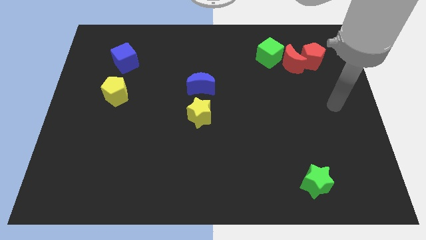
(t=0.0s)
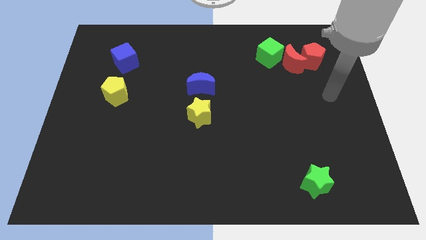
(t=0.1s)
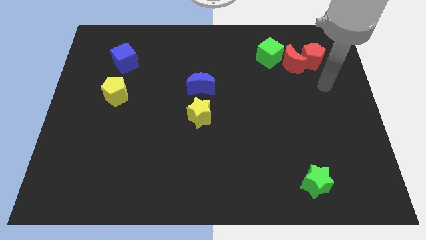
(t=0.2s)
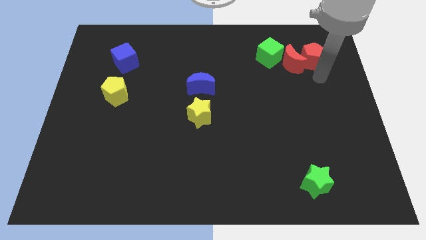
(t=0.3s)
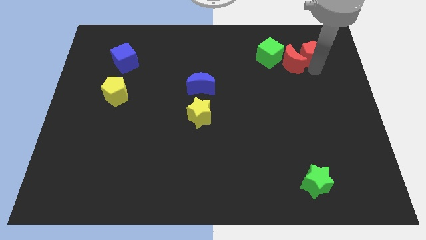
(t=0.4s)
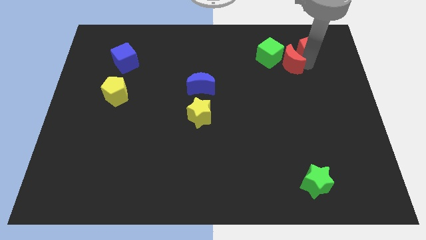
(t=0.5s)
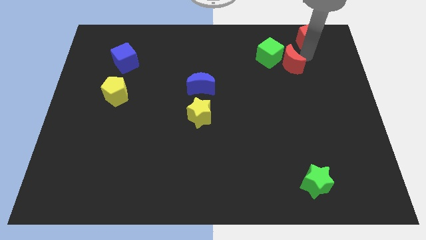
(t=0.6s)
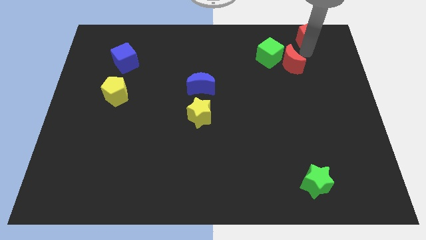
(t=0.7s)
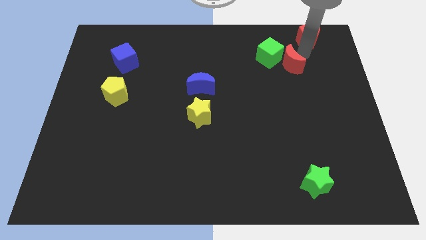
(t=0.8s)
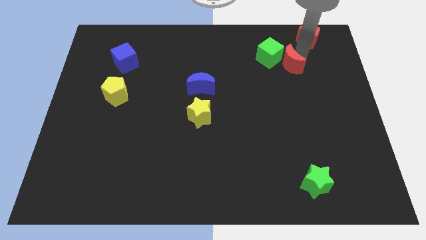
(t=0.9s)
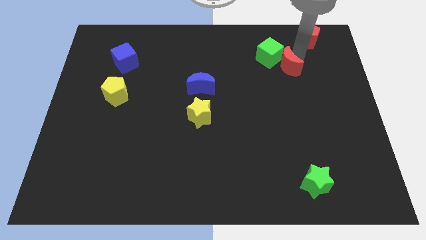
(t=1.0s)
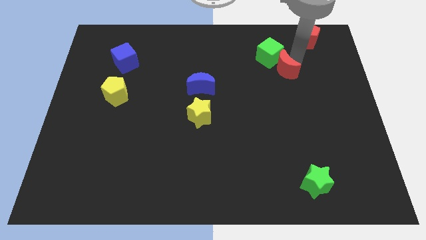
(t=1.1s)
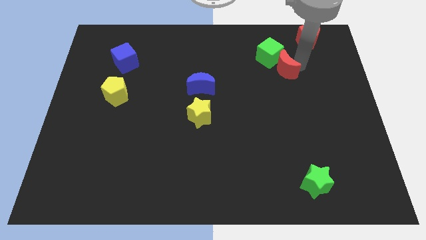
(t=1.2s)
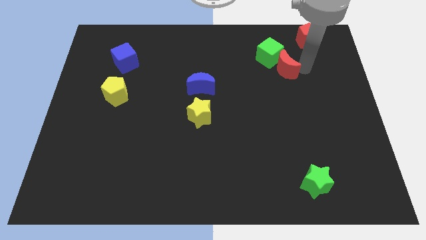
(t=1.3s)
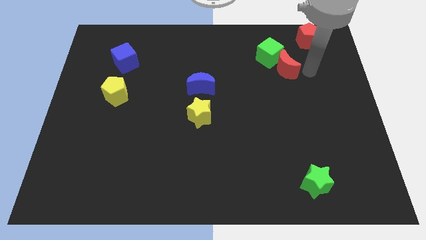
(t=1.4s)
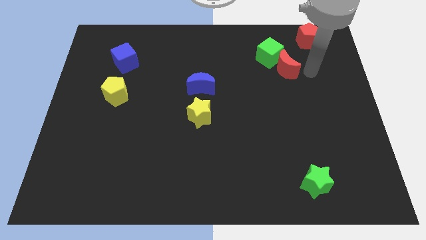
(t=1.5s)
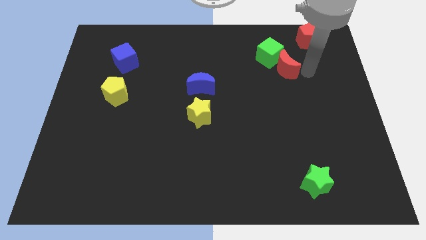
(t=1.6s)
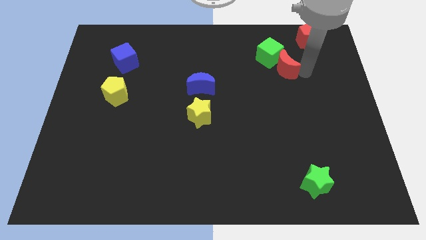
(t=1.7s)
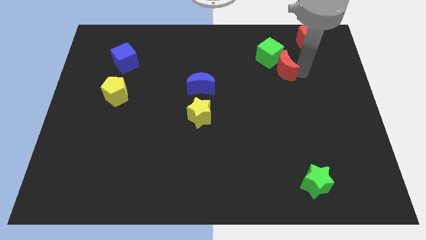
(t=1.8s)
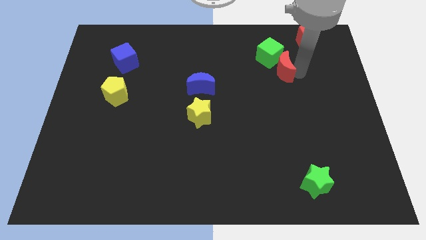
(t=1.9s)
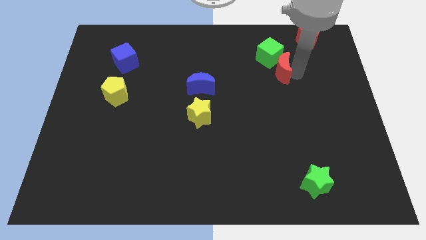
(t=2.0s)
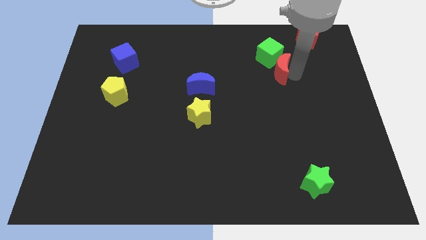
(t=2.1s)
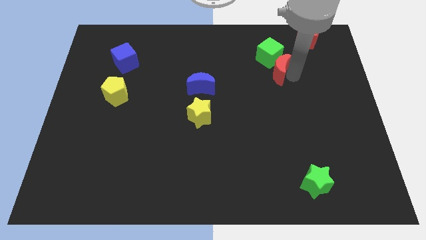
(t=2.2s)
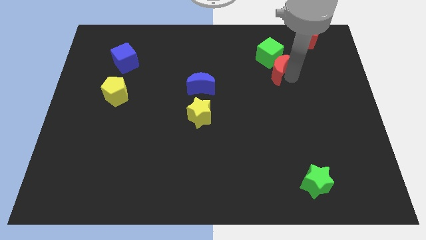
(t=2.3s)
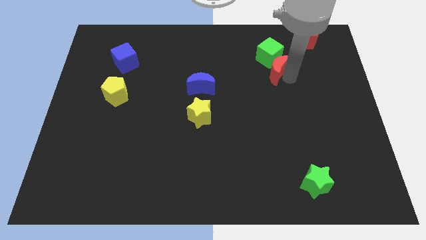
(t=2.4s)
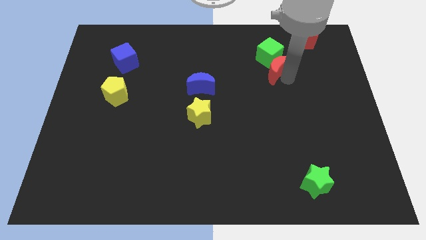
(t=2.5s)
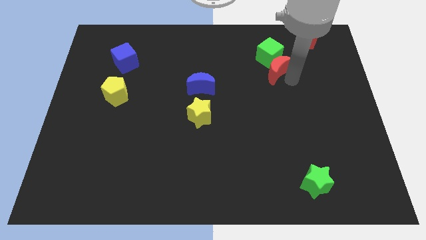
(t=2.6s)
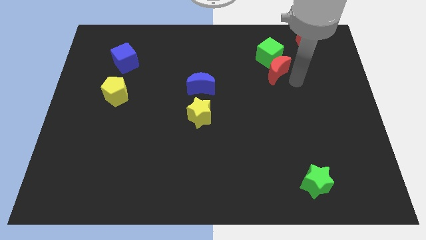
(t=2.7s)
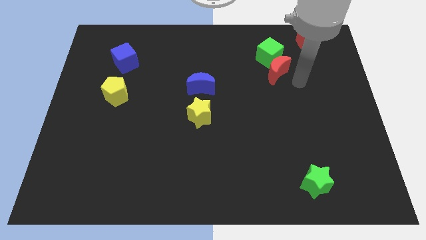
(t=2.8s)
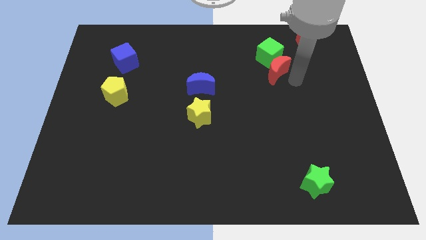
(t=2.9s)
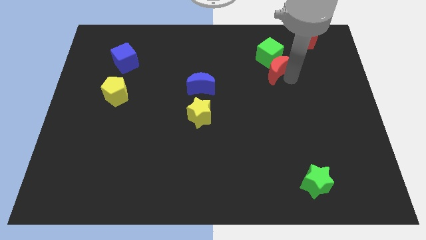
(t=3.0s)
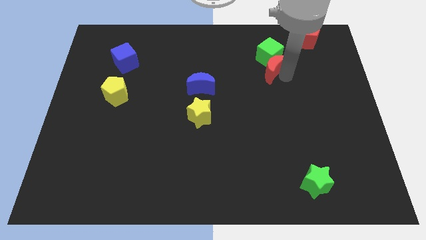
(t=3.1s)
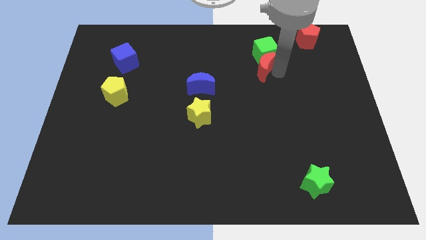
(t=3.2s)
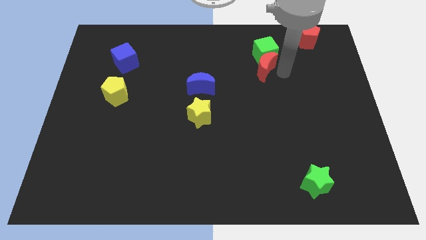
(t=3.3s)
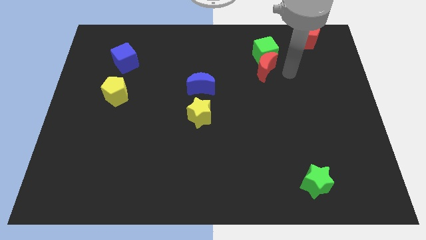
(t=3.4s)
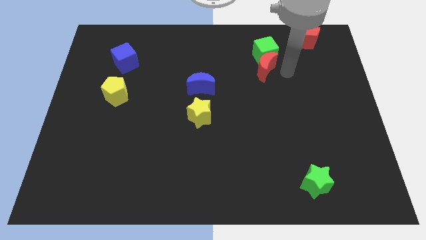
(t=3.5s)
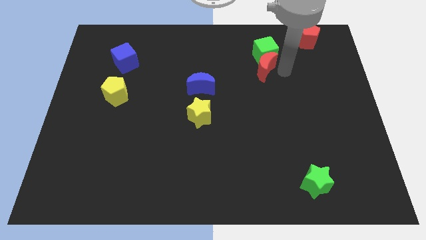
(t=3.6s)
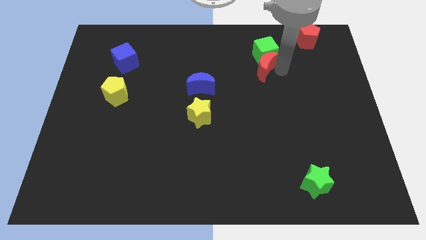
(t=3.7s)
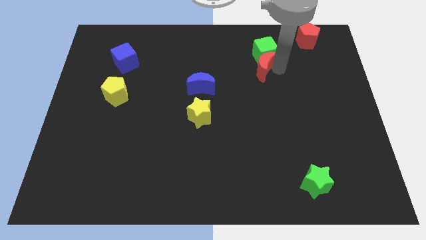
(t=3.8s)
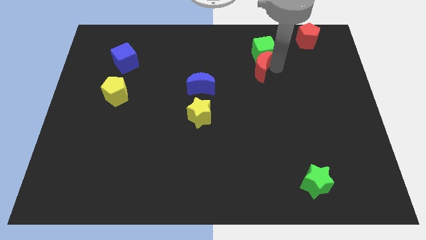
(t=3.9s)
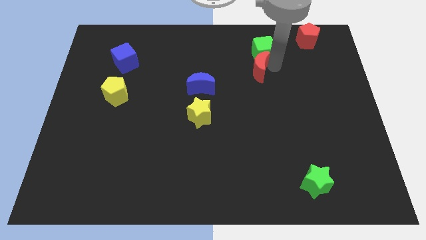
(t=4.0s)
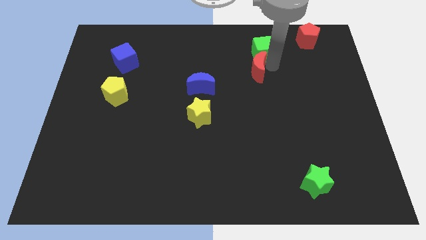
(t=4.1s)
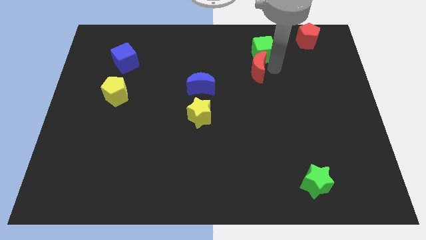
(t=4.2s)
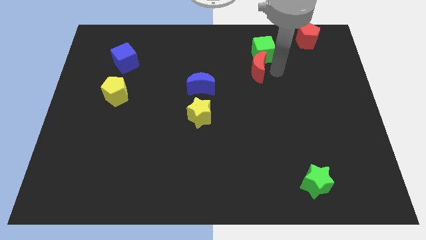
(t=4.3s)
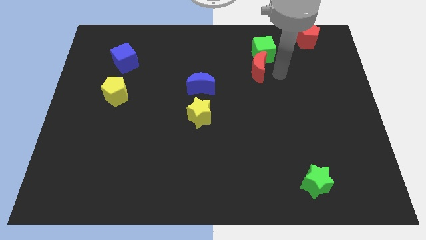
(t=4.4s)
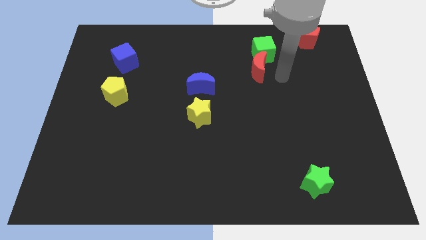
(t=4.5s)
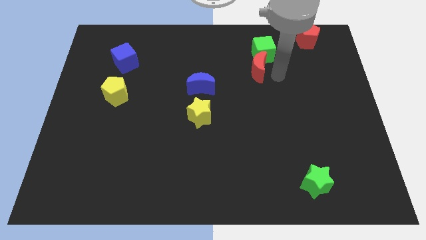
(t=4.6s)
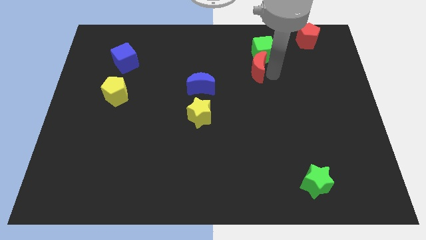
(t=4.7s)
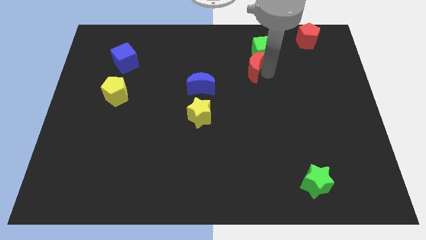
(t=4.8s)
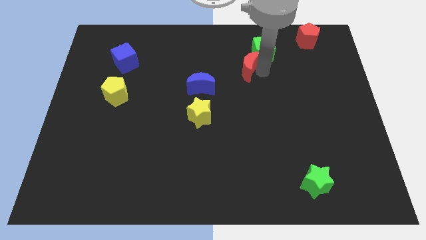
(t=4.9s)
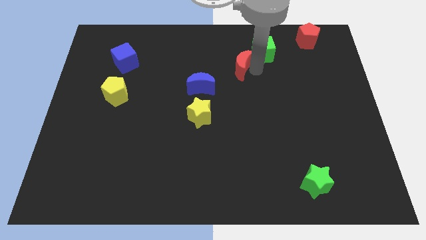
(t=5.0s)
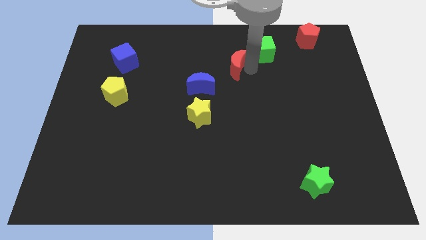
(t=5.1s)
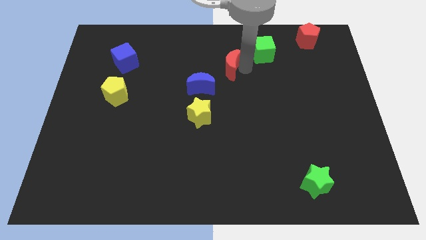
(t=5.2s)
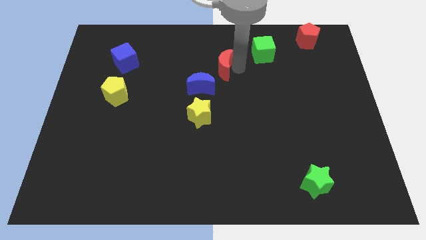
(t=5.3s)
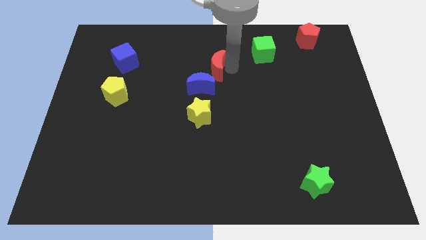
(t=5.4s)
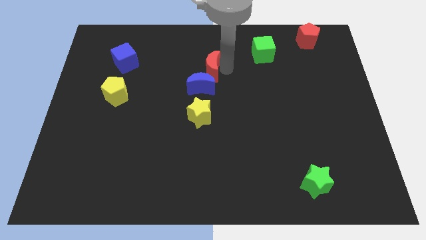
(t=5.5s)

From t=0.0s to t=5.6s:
slide the red moon left

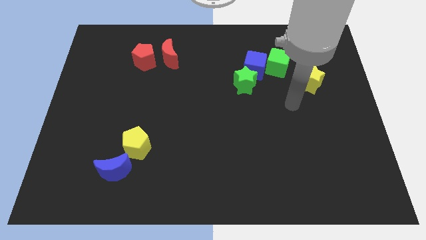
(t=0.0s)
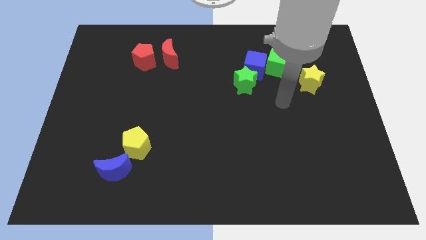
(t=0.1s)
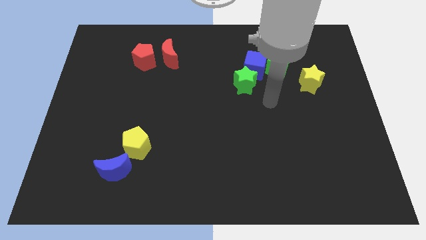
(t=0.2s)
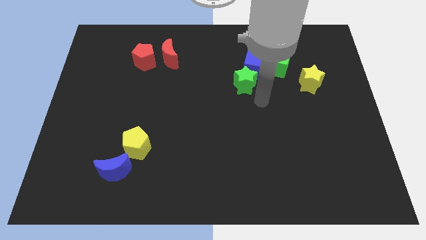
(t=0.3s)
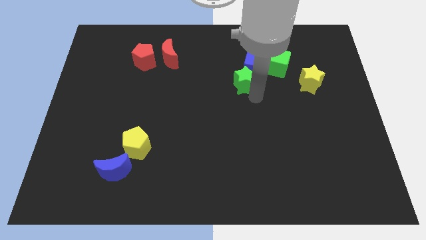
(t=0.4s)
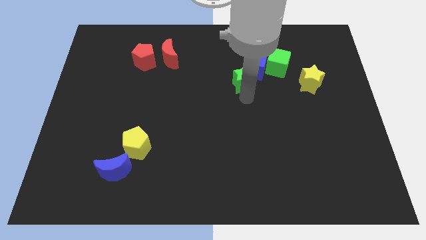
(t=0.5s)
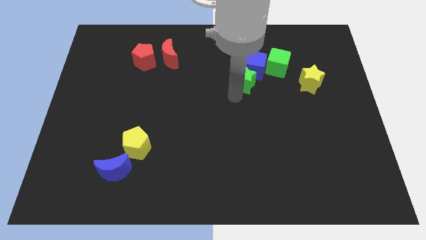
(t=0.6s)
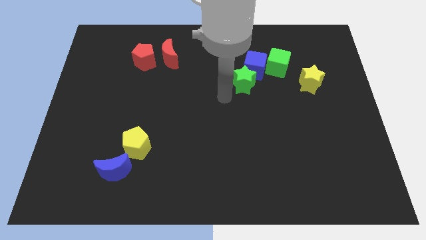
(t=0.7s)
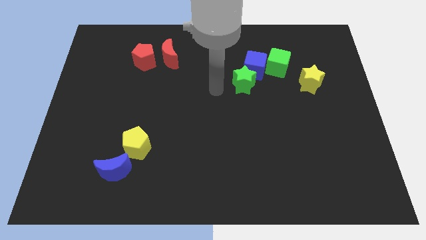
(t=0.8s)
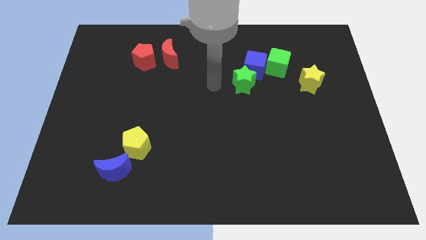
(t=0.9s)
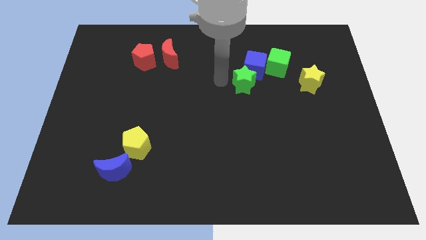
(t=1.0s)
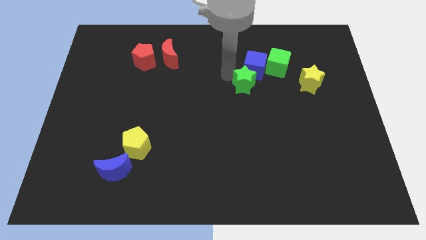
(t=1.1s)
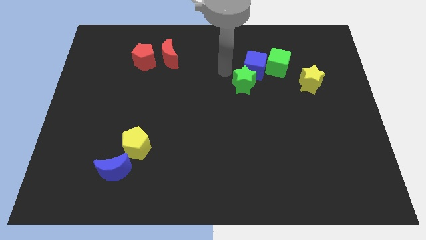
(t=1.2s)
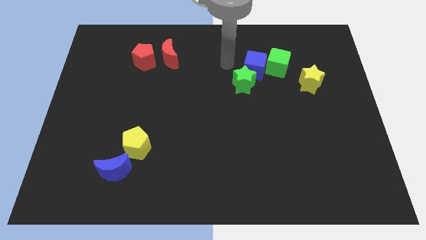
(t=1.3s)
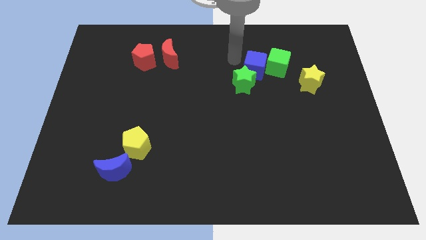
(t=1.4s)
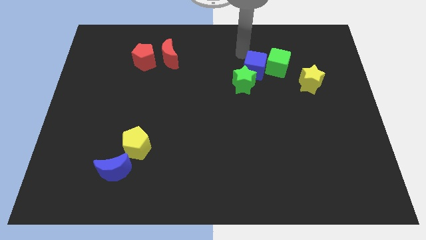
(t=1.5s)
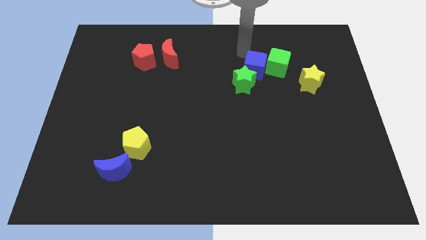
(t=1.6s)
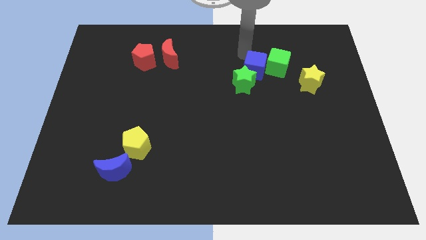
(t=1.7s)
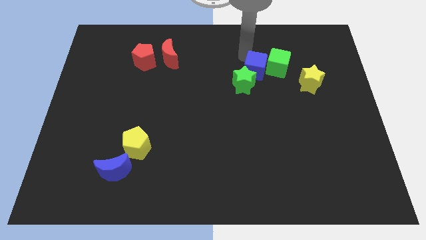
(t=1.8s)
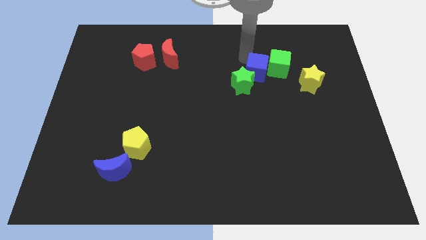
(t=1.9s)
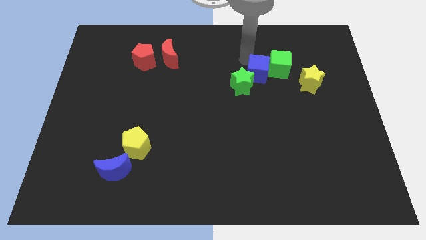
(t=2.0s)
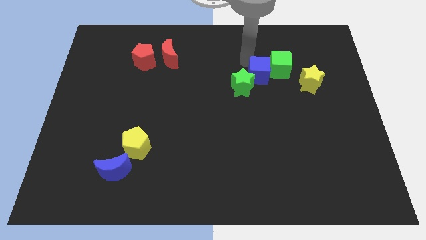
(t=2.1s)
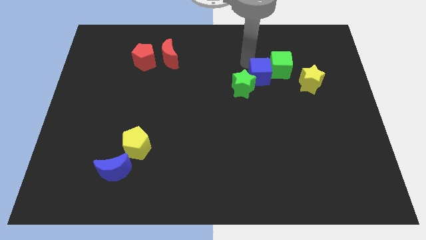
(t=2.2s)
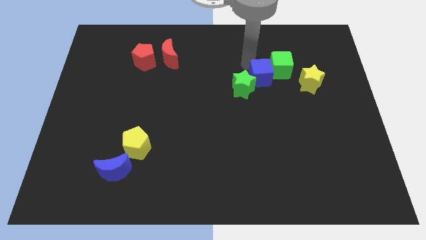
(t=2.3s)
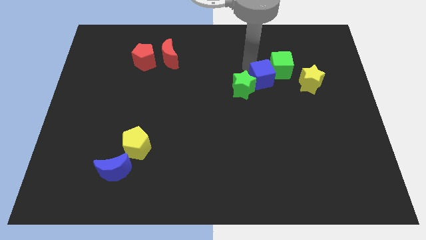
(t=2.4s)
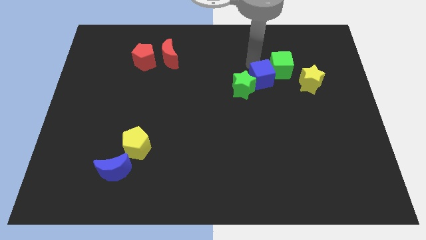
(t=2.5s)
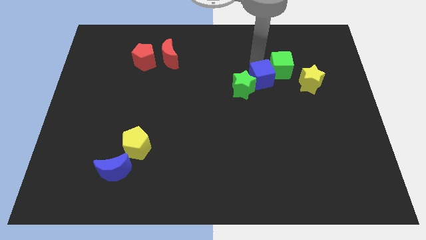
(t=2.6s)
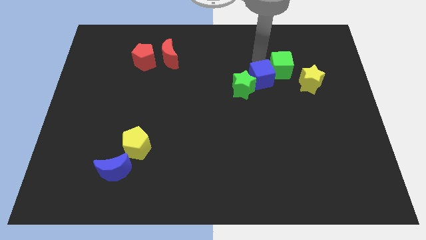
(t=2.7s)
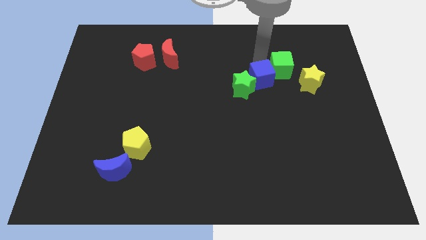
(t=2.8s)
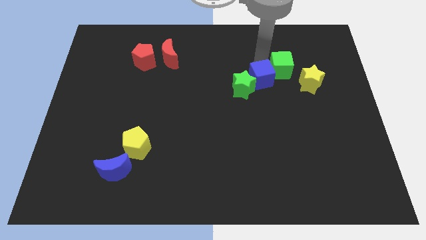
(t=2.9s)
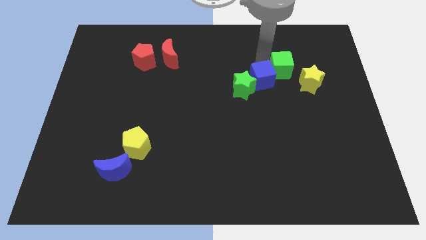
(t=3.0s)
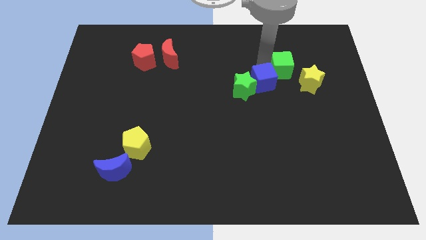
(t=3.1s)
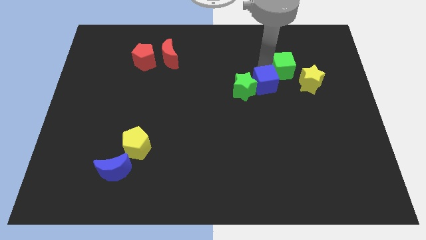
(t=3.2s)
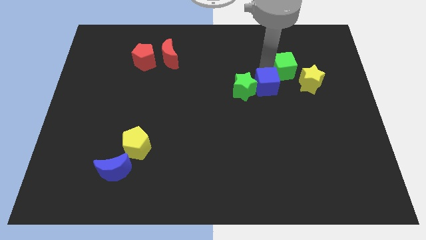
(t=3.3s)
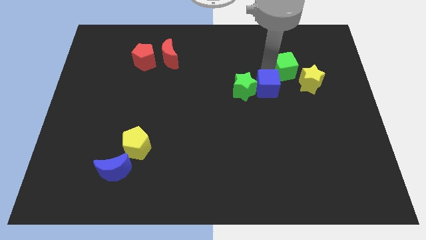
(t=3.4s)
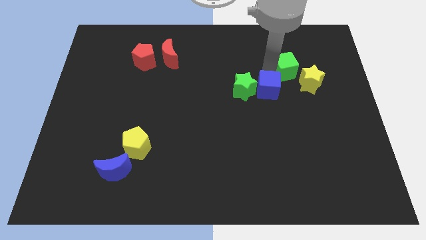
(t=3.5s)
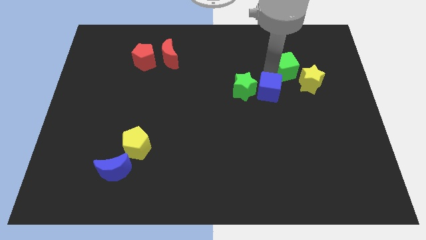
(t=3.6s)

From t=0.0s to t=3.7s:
slightly move the blue cube down
